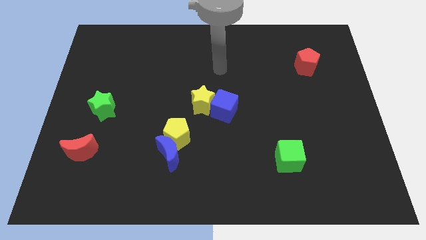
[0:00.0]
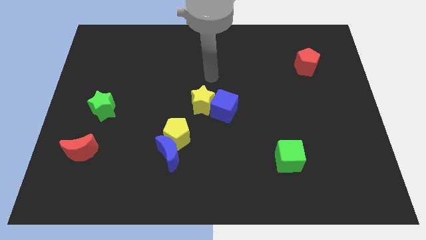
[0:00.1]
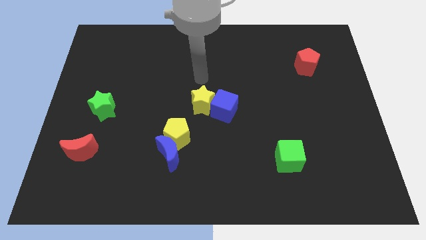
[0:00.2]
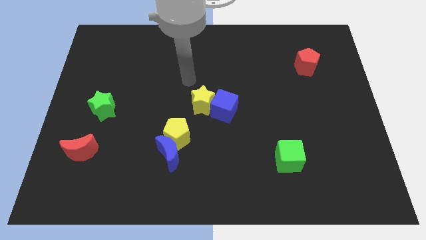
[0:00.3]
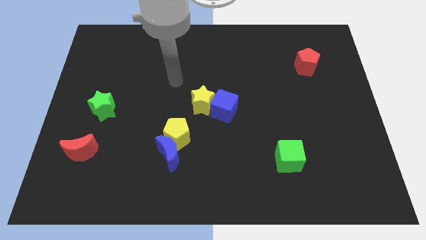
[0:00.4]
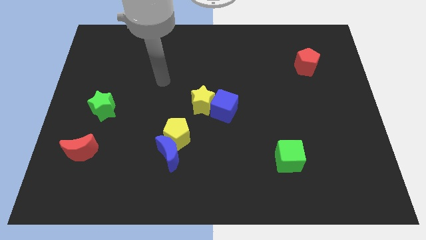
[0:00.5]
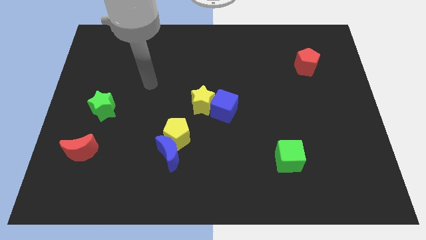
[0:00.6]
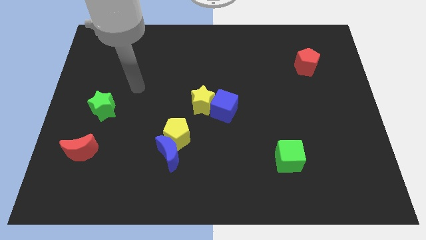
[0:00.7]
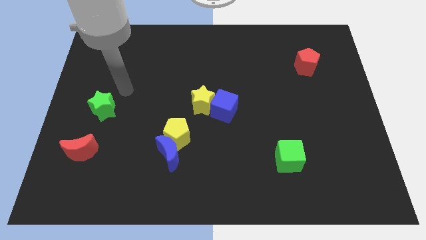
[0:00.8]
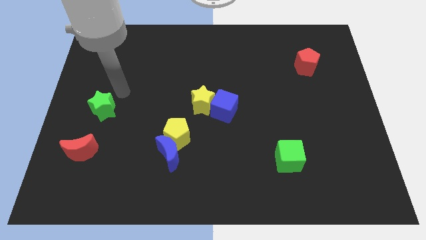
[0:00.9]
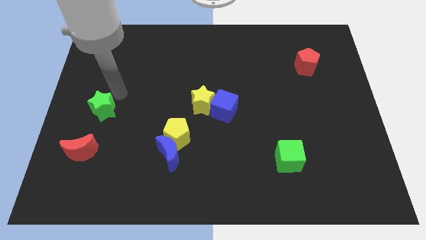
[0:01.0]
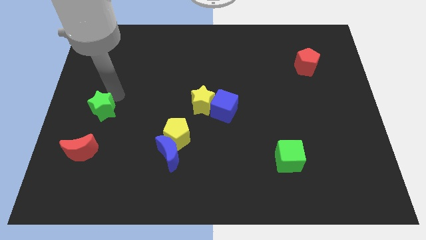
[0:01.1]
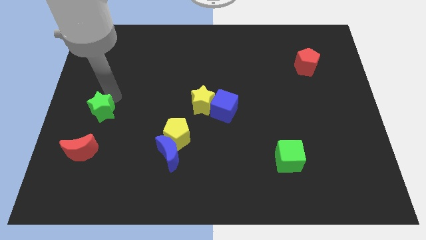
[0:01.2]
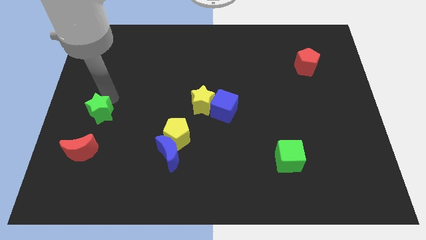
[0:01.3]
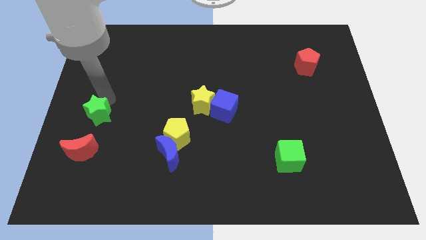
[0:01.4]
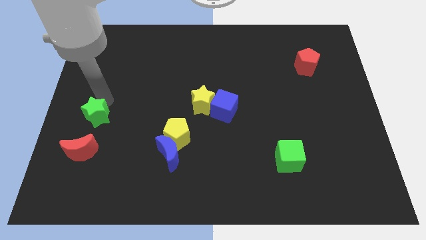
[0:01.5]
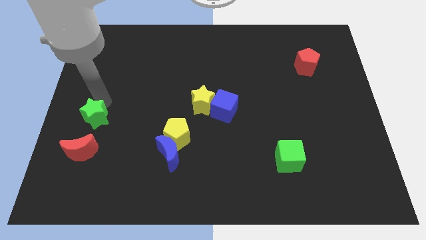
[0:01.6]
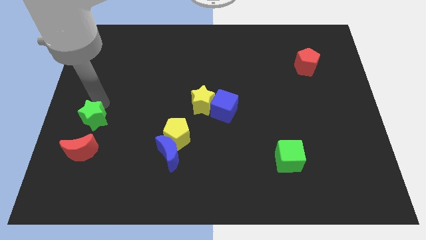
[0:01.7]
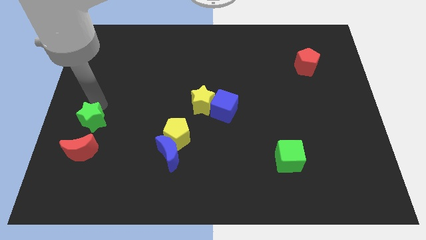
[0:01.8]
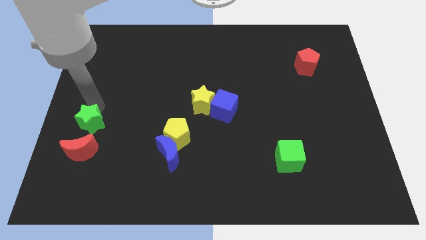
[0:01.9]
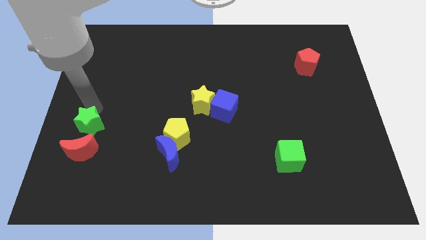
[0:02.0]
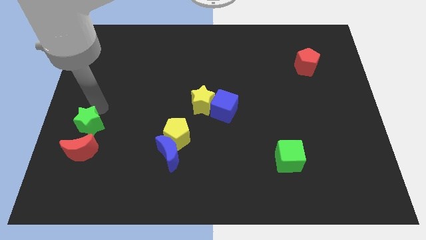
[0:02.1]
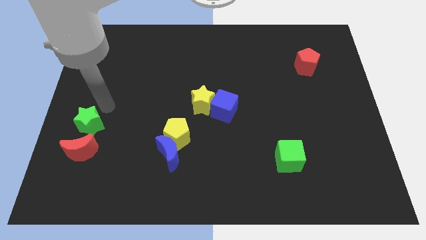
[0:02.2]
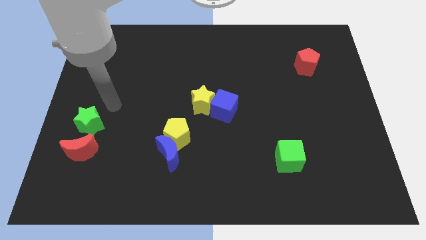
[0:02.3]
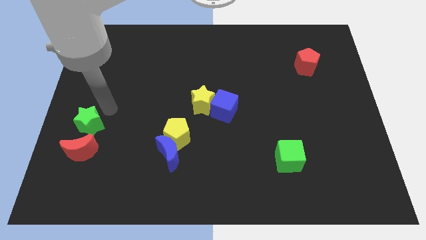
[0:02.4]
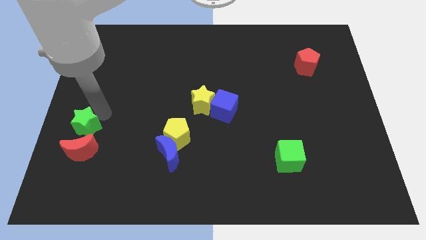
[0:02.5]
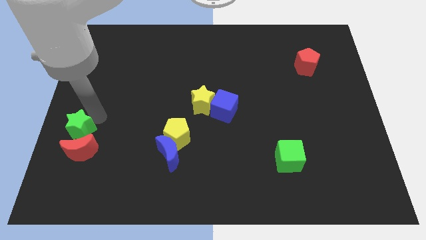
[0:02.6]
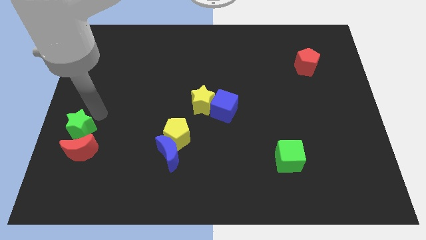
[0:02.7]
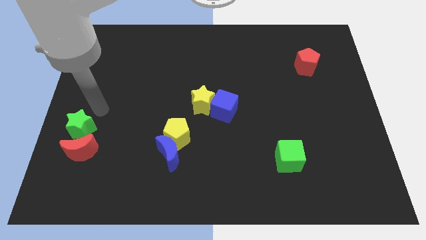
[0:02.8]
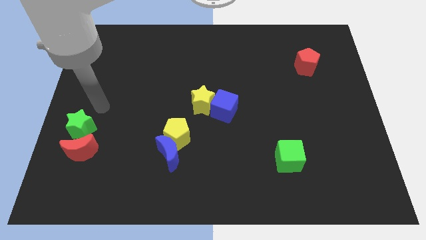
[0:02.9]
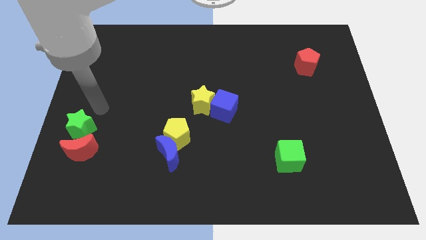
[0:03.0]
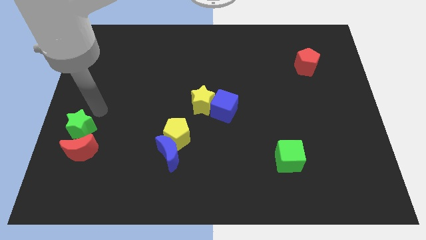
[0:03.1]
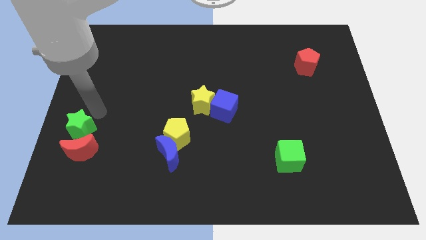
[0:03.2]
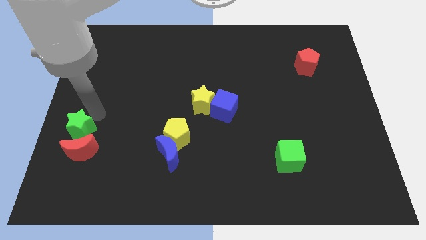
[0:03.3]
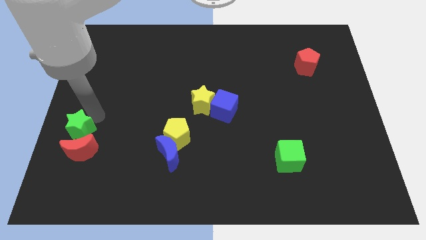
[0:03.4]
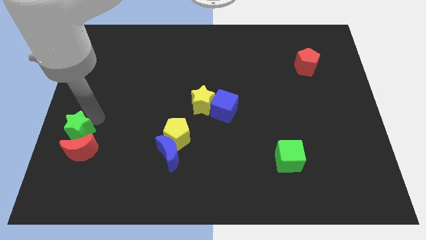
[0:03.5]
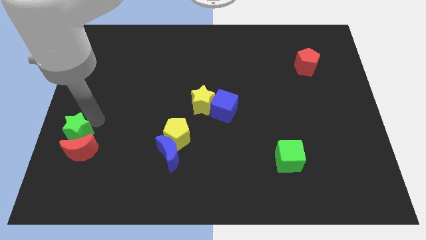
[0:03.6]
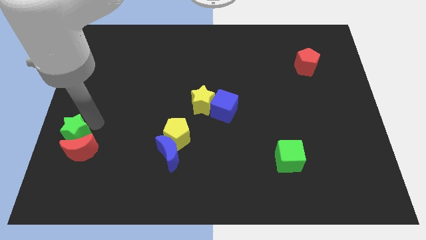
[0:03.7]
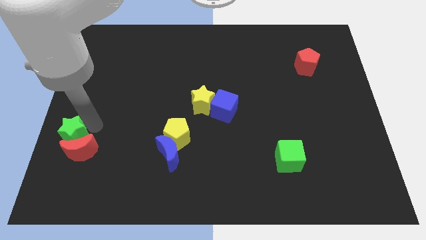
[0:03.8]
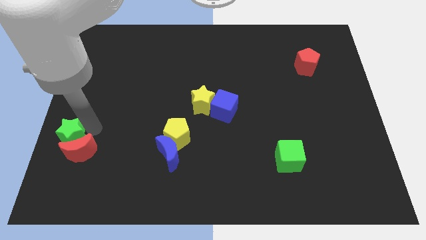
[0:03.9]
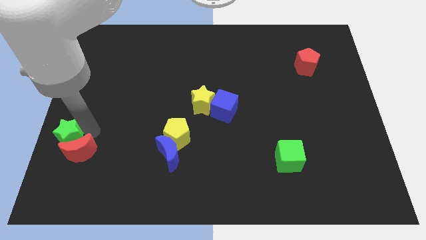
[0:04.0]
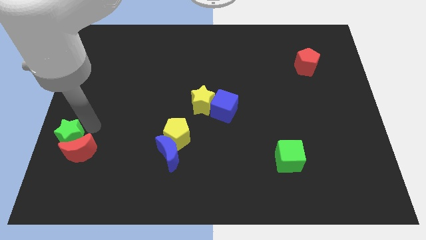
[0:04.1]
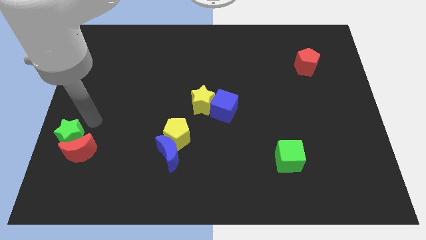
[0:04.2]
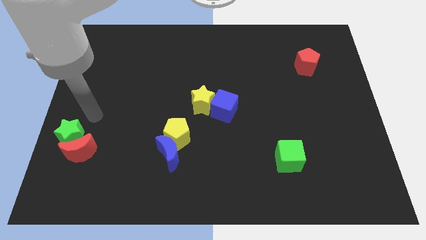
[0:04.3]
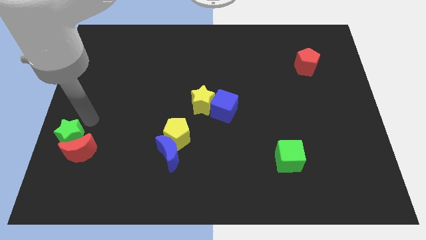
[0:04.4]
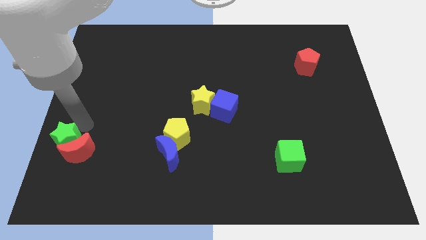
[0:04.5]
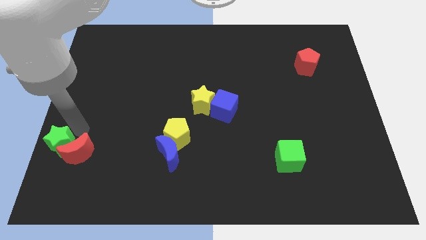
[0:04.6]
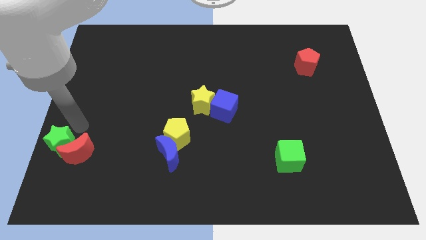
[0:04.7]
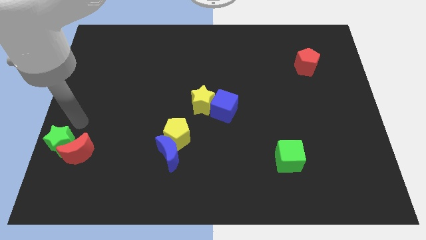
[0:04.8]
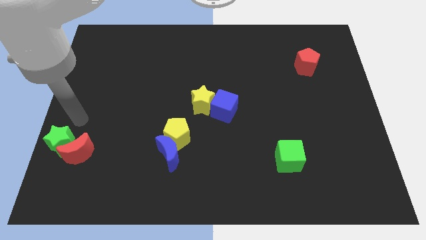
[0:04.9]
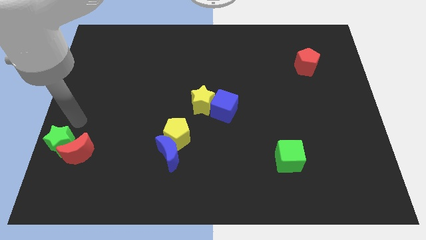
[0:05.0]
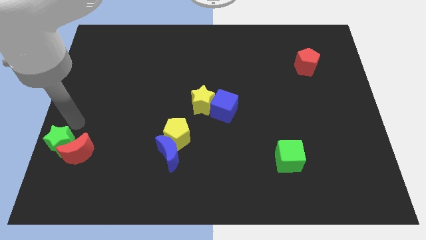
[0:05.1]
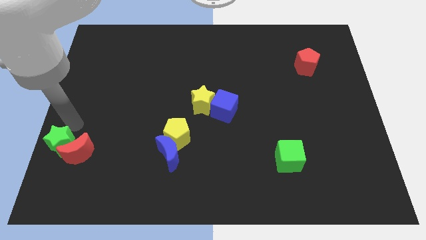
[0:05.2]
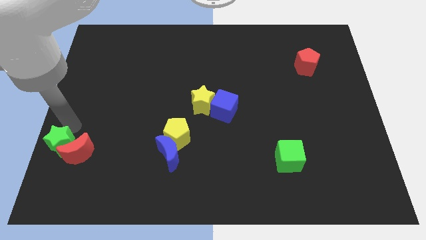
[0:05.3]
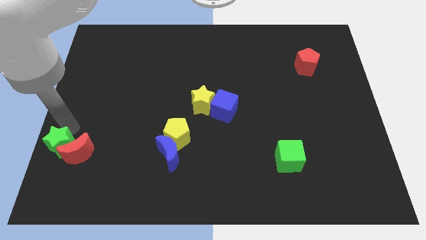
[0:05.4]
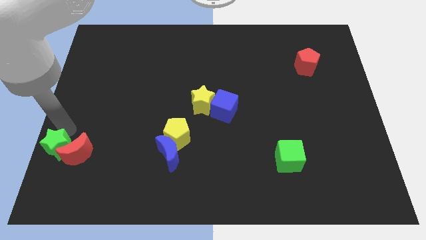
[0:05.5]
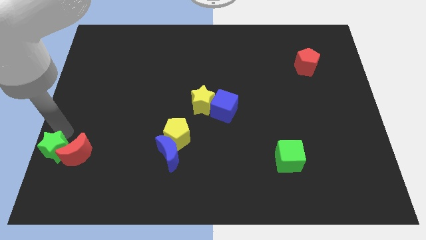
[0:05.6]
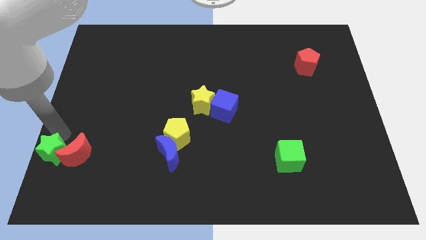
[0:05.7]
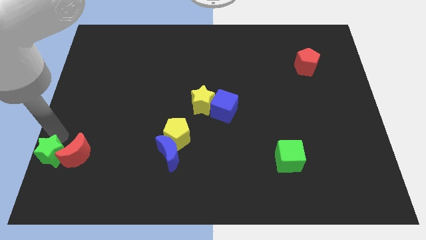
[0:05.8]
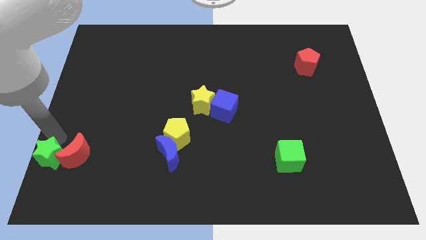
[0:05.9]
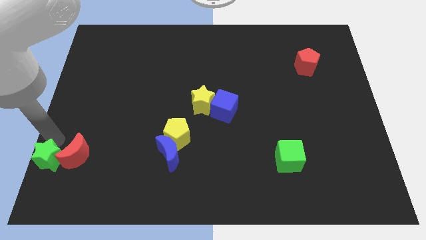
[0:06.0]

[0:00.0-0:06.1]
move the green star to the bottom left corner
